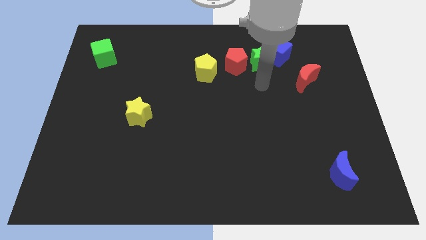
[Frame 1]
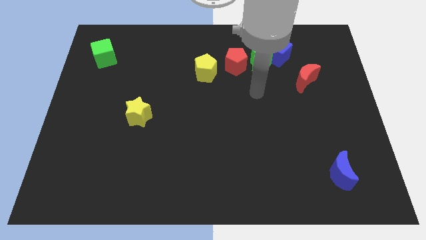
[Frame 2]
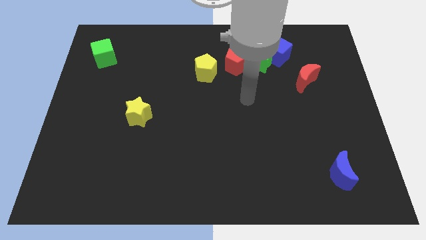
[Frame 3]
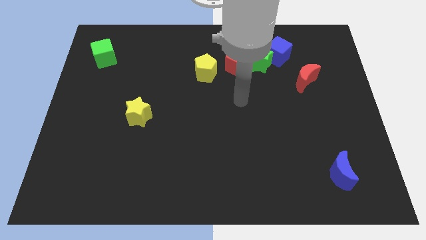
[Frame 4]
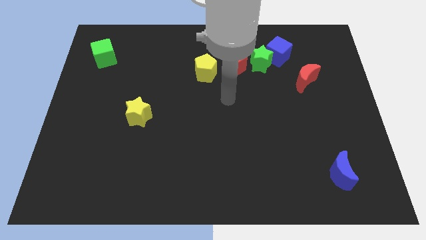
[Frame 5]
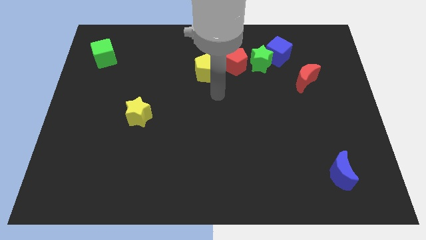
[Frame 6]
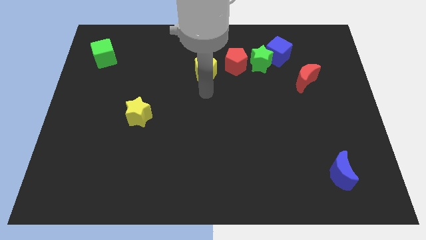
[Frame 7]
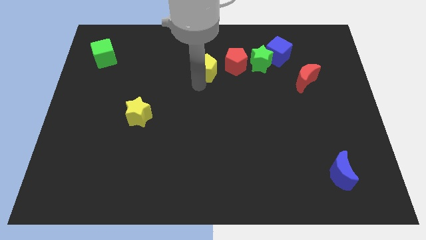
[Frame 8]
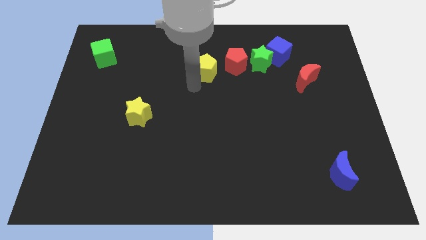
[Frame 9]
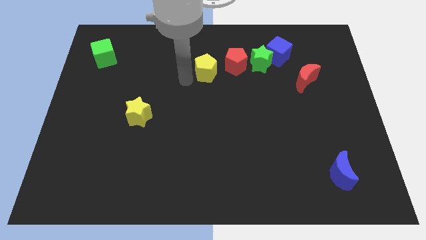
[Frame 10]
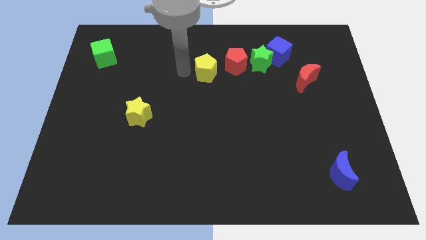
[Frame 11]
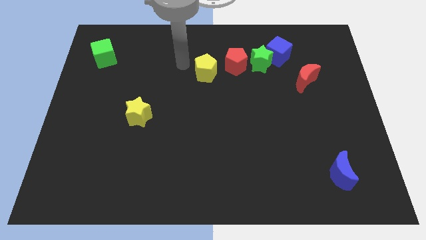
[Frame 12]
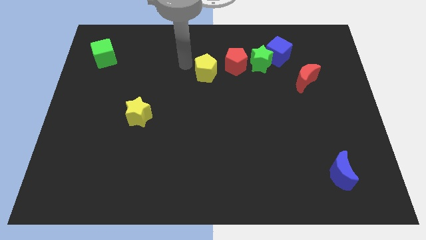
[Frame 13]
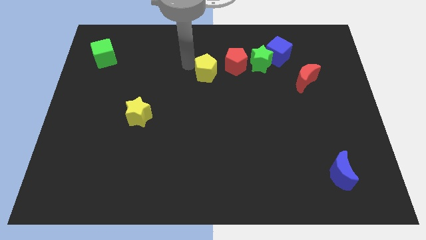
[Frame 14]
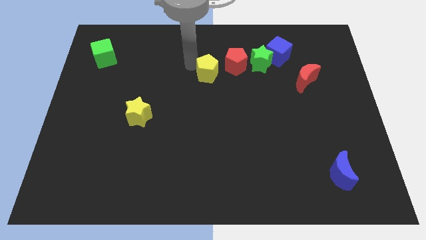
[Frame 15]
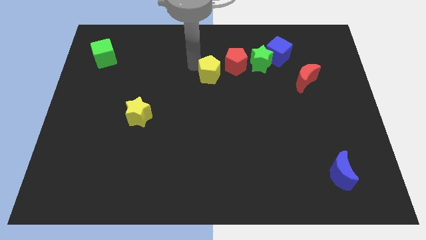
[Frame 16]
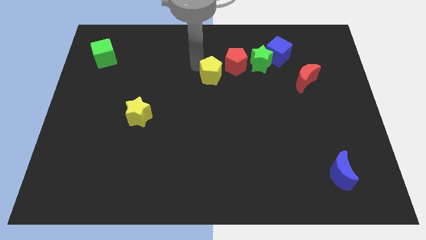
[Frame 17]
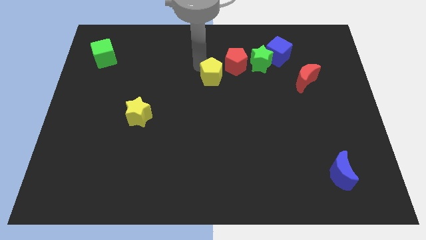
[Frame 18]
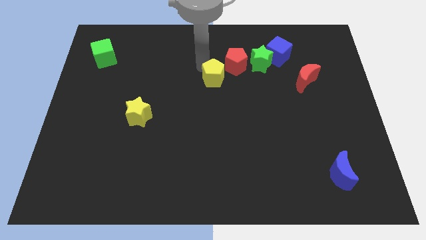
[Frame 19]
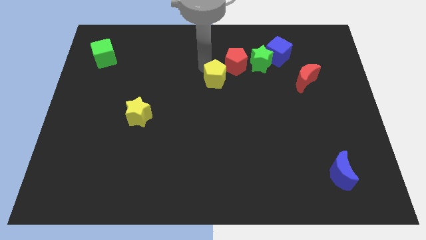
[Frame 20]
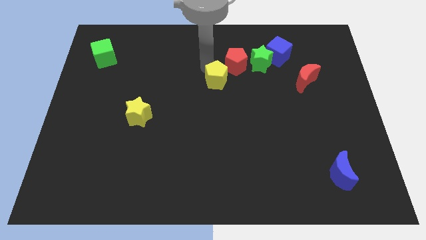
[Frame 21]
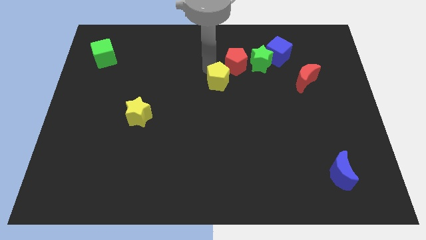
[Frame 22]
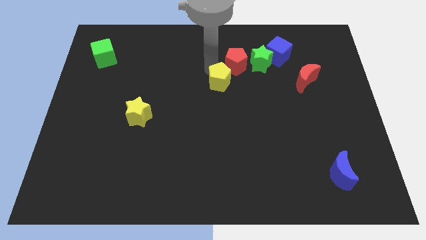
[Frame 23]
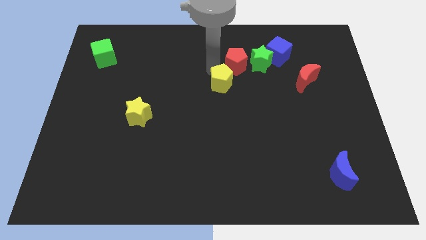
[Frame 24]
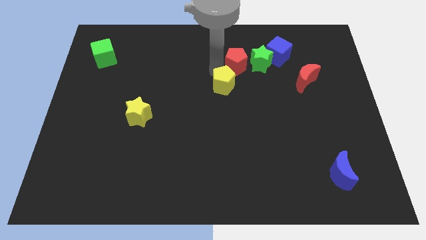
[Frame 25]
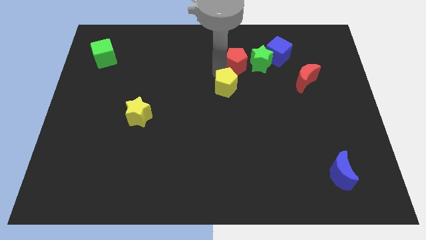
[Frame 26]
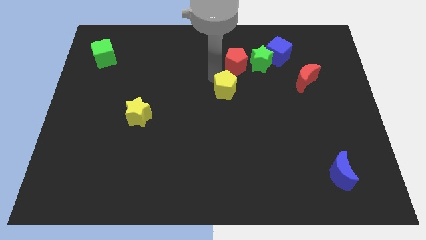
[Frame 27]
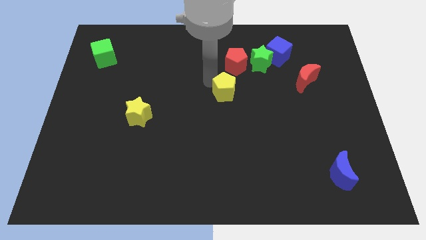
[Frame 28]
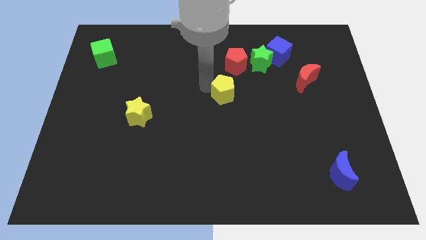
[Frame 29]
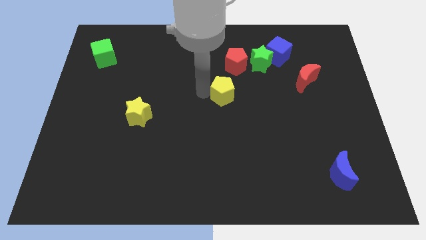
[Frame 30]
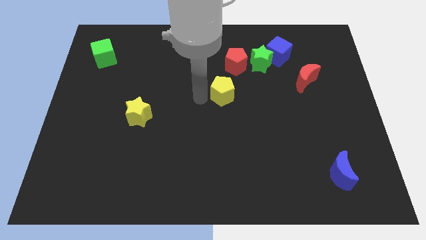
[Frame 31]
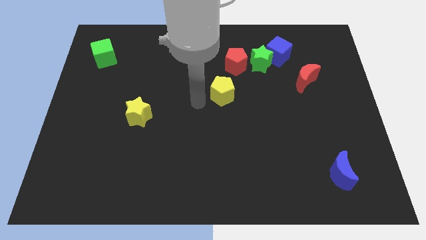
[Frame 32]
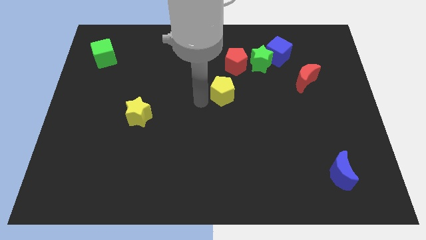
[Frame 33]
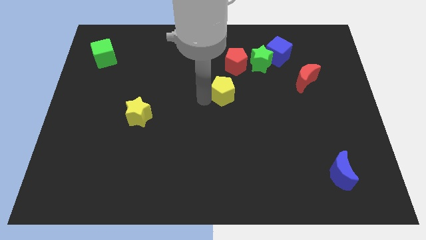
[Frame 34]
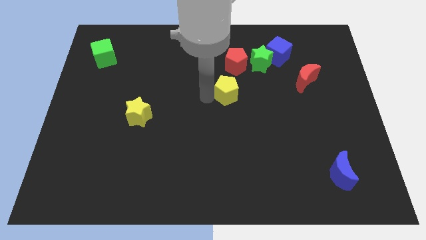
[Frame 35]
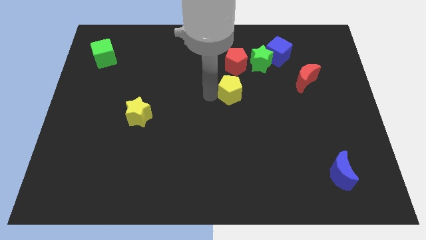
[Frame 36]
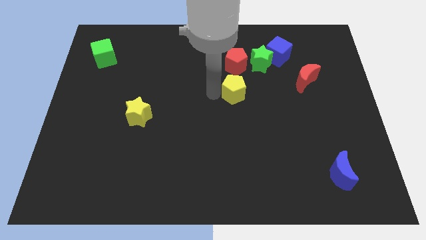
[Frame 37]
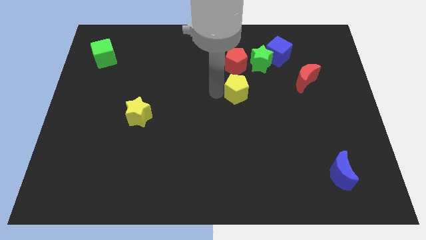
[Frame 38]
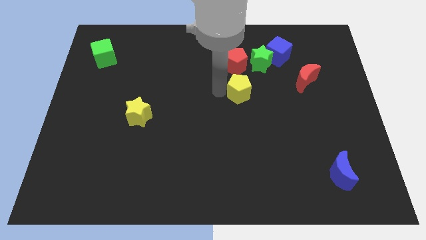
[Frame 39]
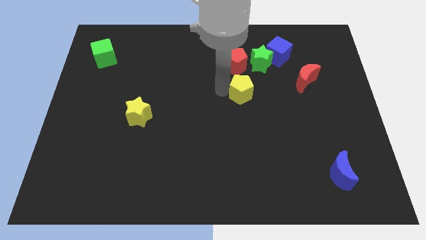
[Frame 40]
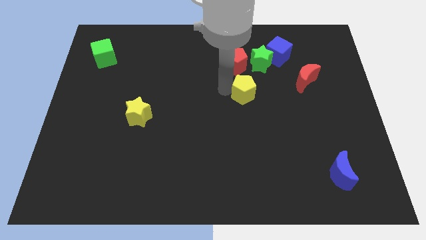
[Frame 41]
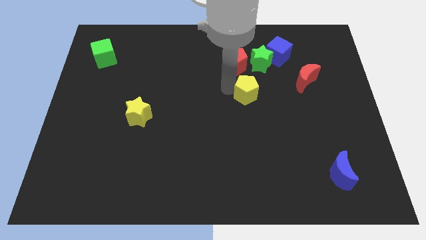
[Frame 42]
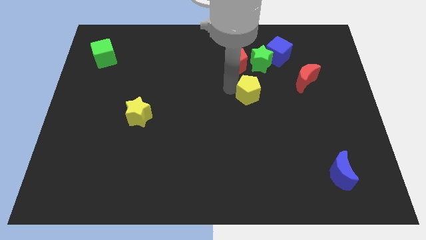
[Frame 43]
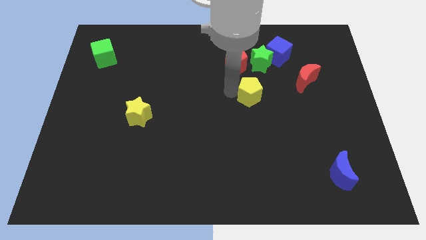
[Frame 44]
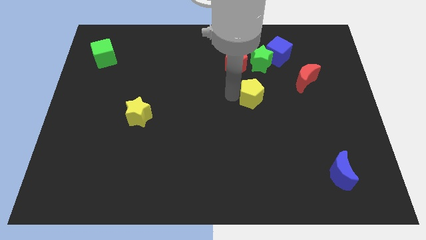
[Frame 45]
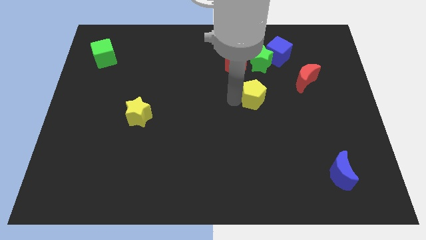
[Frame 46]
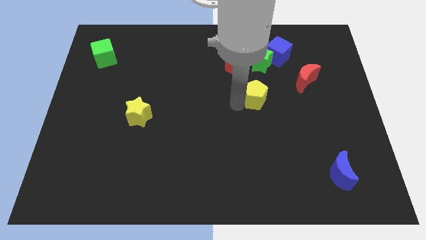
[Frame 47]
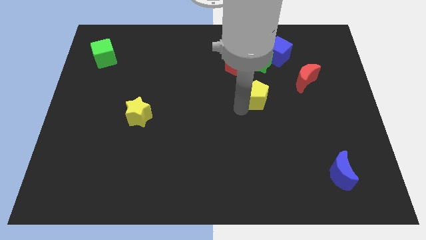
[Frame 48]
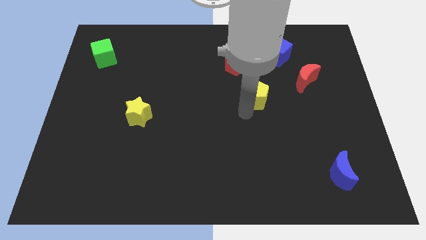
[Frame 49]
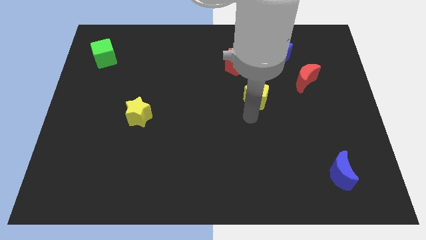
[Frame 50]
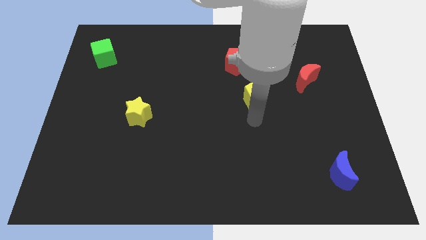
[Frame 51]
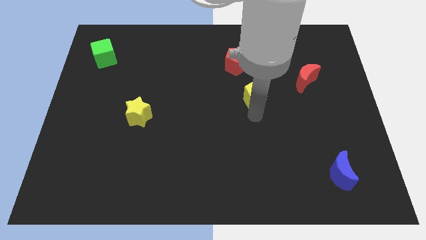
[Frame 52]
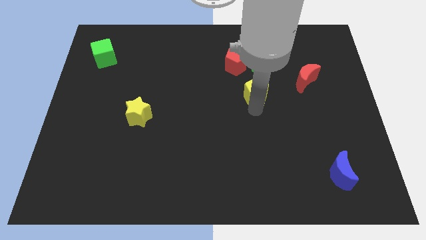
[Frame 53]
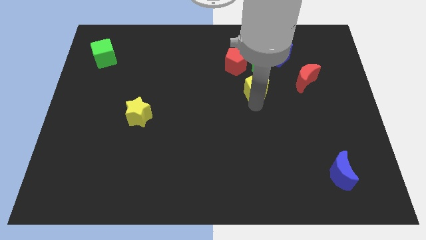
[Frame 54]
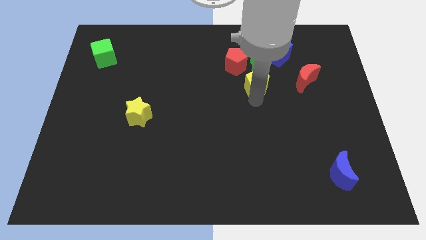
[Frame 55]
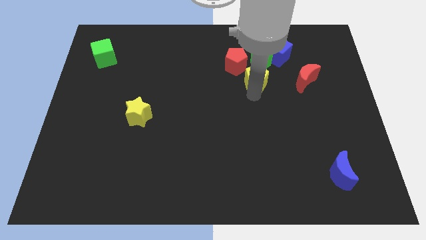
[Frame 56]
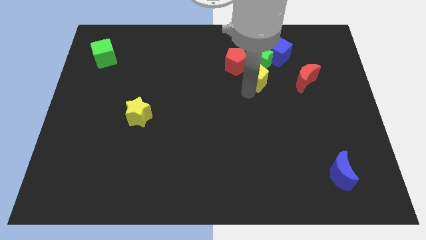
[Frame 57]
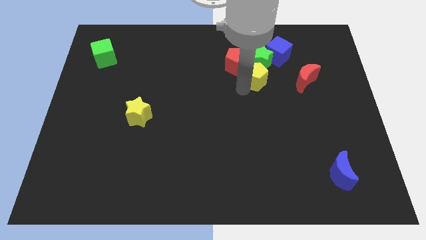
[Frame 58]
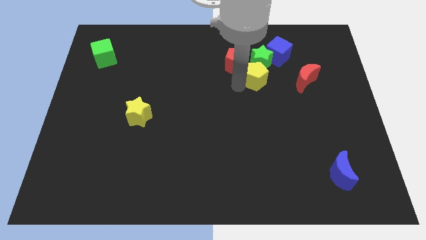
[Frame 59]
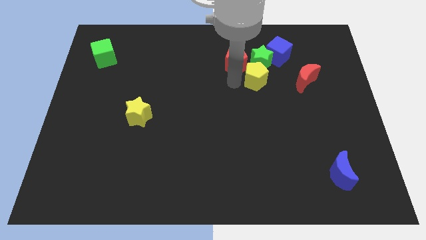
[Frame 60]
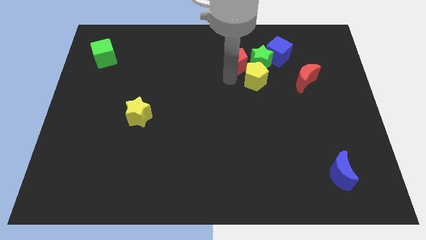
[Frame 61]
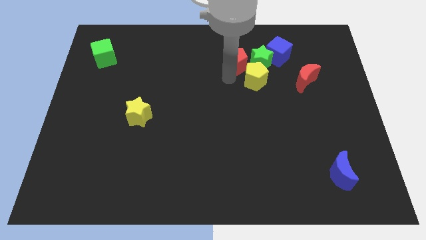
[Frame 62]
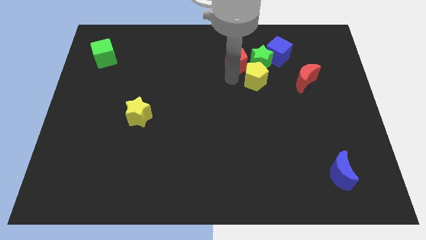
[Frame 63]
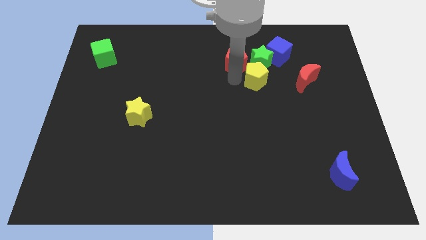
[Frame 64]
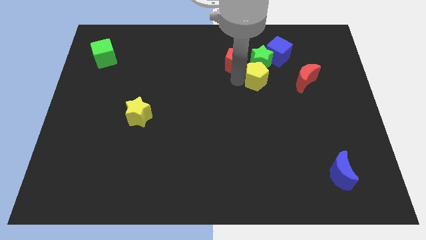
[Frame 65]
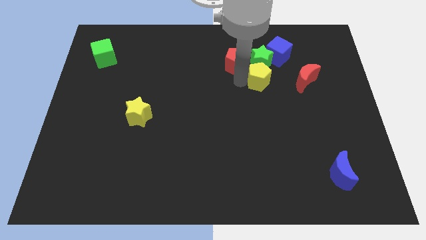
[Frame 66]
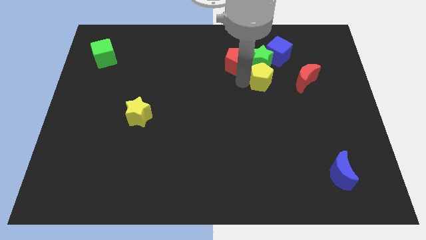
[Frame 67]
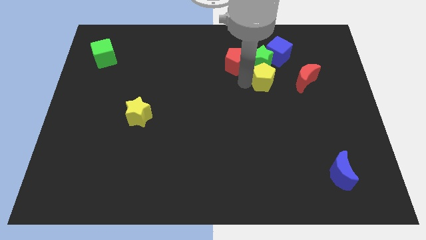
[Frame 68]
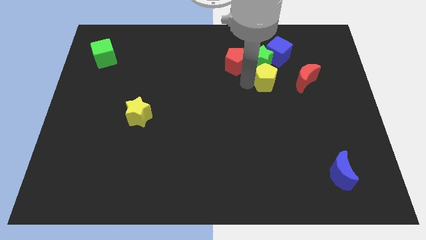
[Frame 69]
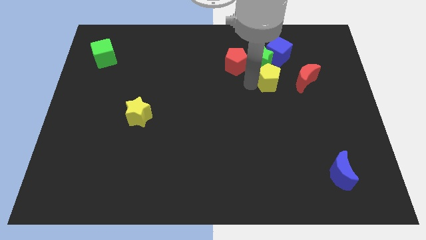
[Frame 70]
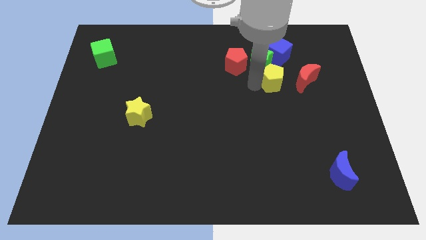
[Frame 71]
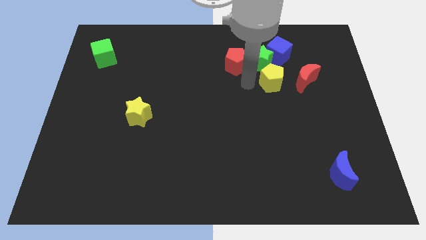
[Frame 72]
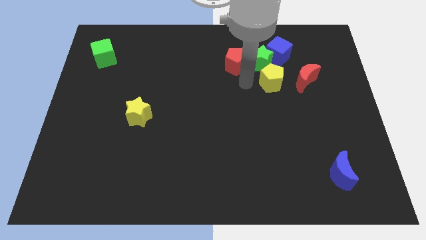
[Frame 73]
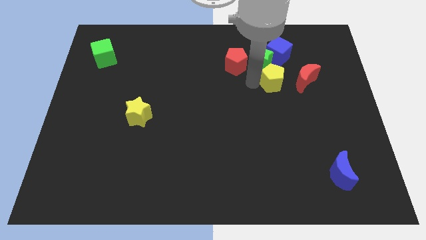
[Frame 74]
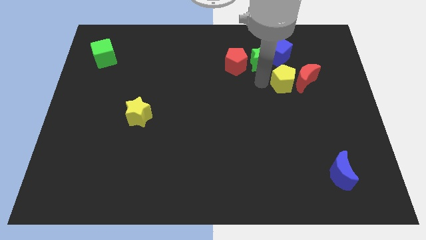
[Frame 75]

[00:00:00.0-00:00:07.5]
push the yellow pentagon close to the red moon
